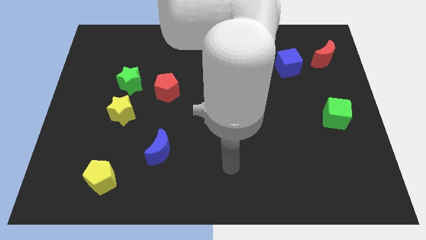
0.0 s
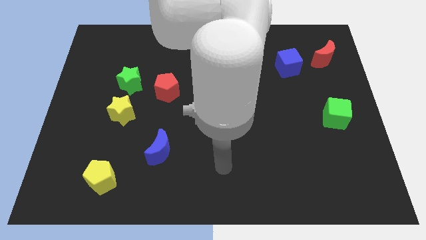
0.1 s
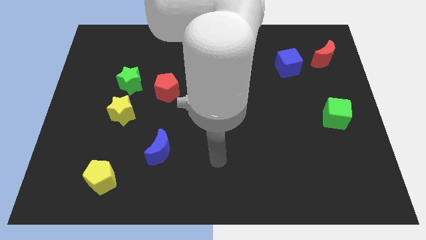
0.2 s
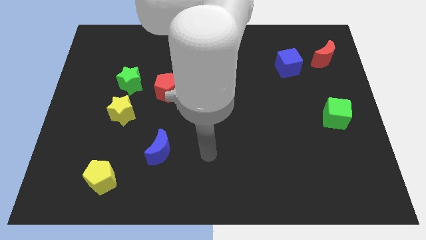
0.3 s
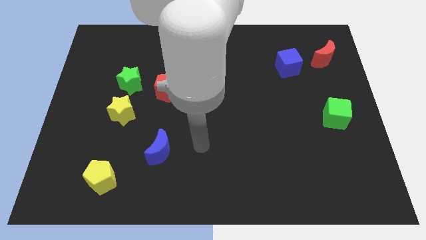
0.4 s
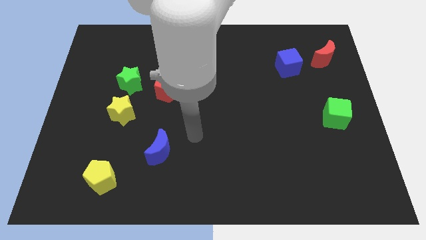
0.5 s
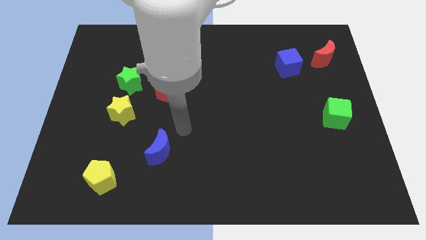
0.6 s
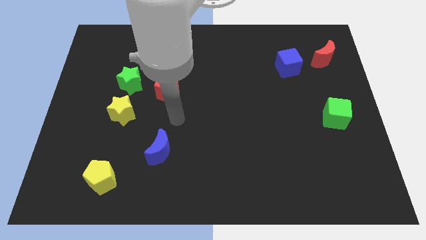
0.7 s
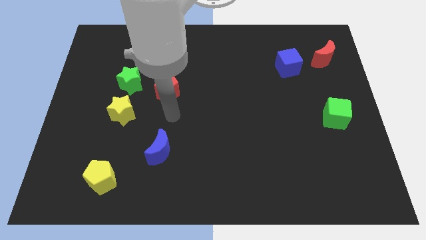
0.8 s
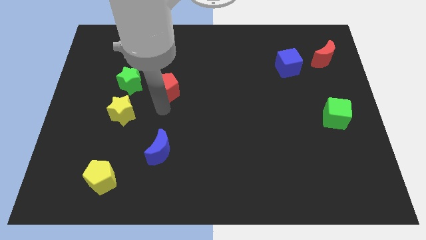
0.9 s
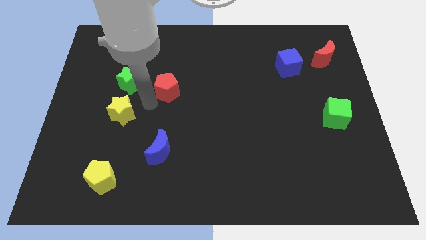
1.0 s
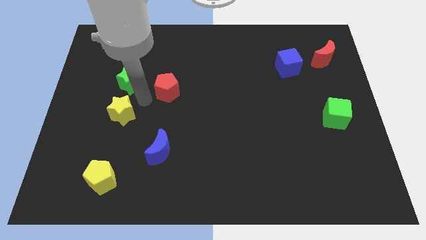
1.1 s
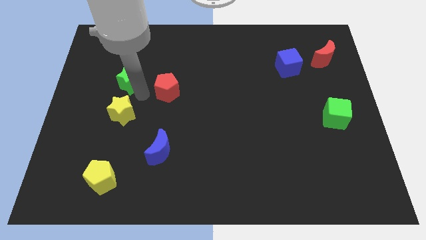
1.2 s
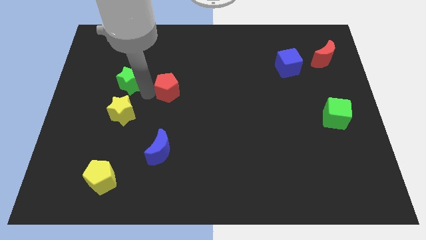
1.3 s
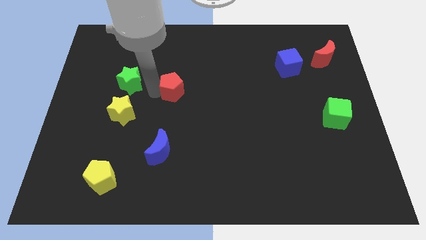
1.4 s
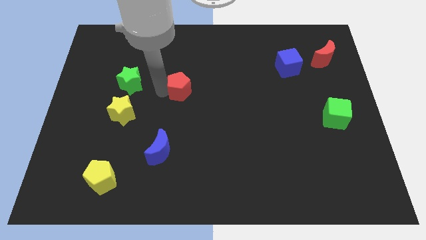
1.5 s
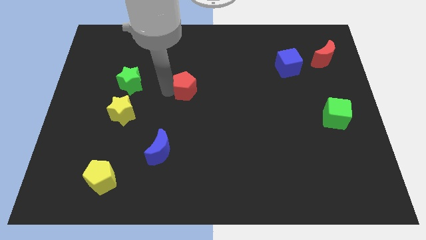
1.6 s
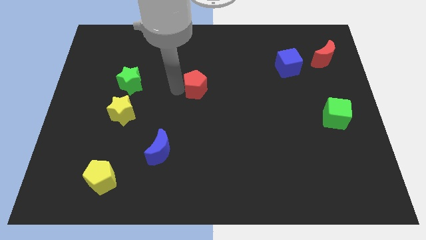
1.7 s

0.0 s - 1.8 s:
slide the red pentagon somewhat to the right

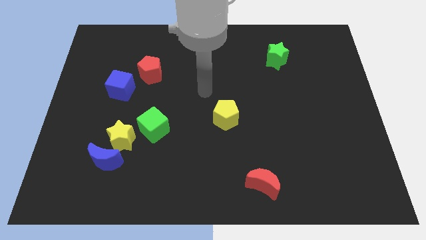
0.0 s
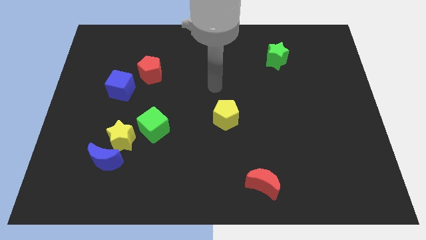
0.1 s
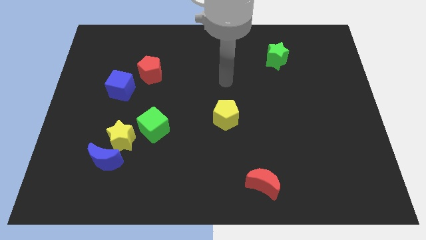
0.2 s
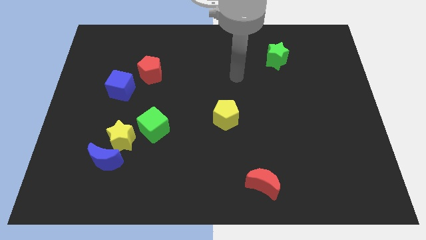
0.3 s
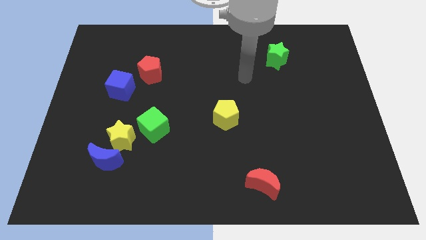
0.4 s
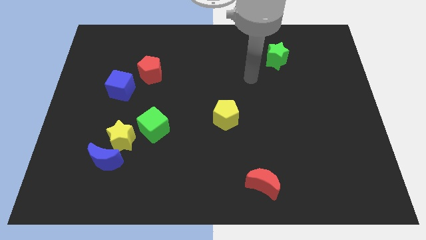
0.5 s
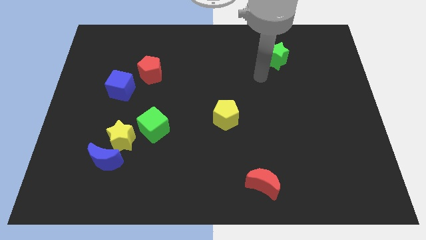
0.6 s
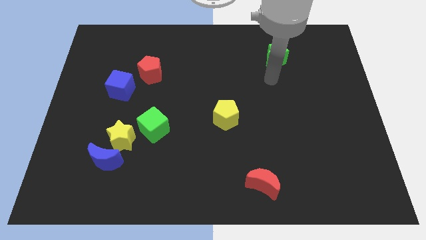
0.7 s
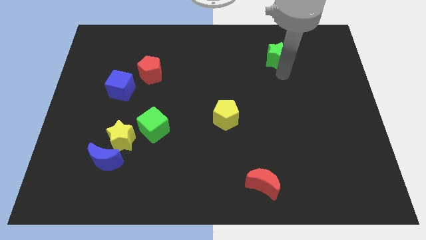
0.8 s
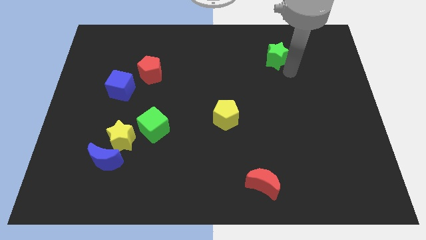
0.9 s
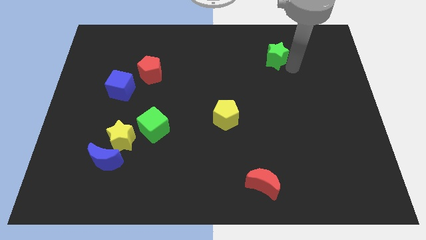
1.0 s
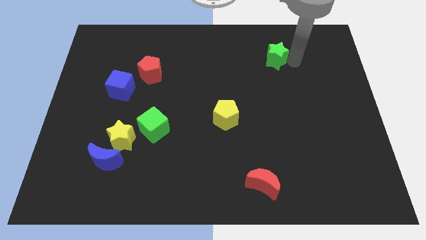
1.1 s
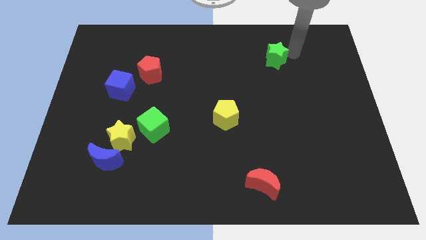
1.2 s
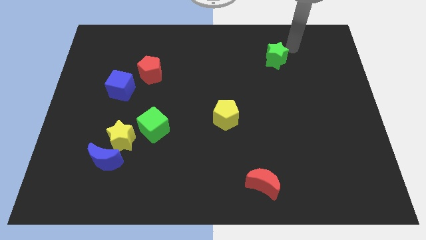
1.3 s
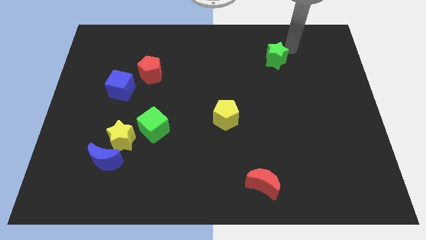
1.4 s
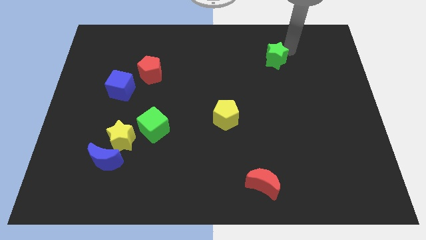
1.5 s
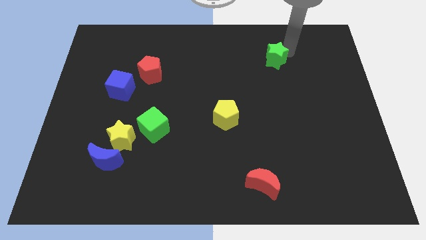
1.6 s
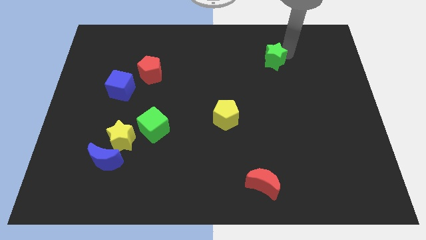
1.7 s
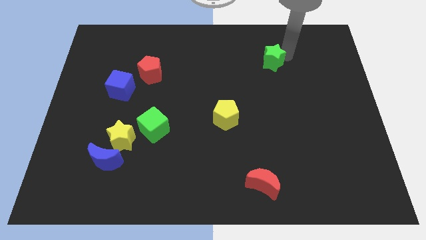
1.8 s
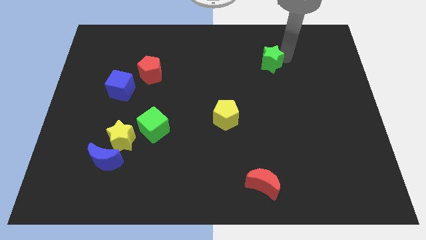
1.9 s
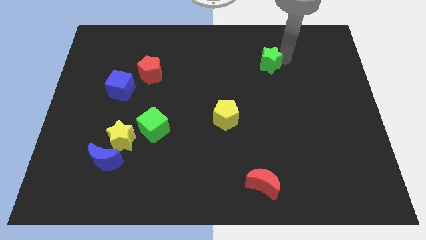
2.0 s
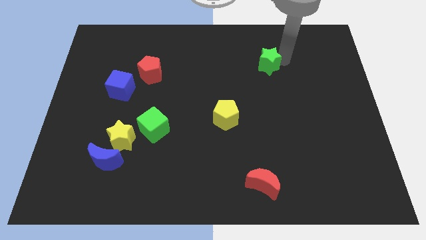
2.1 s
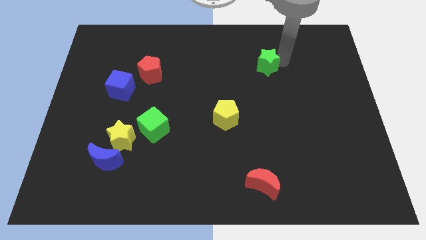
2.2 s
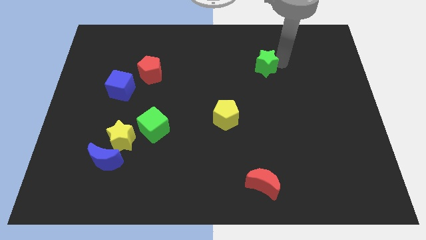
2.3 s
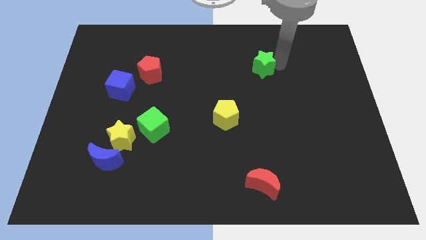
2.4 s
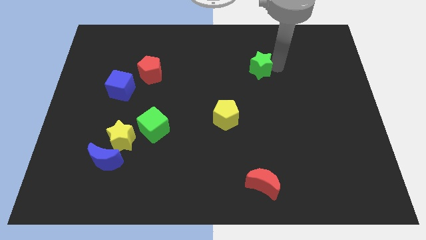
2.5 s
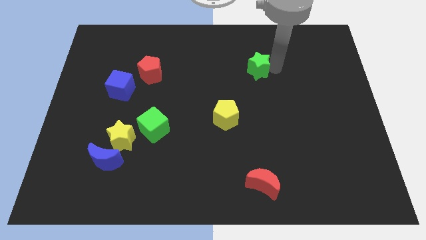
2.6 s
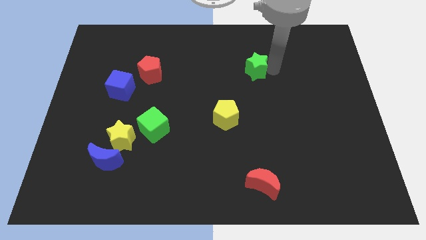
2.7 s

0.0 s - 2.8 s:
slightly push the green star diagonally downwards and left

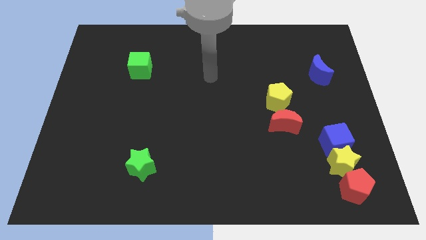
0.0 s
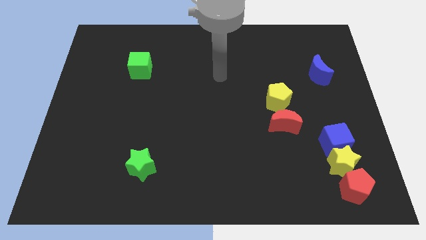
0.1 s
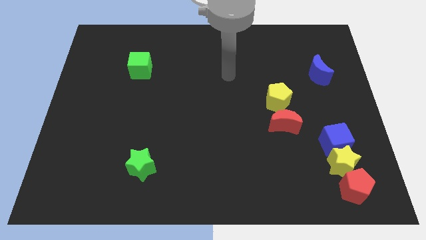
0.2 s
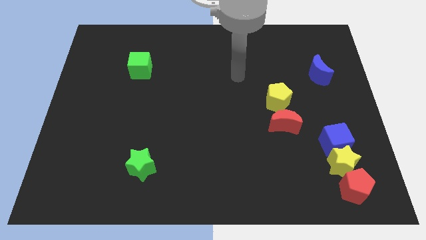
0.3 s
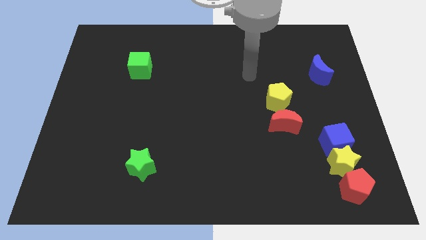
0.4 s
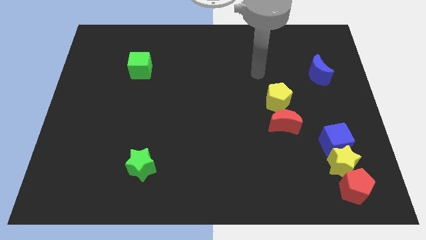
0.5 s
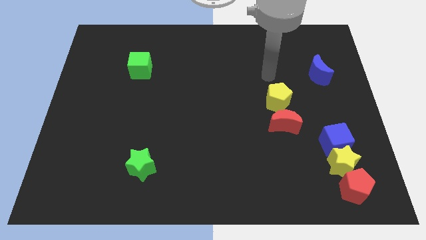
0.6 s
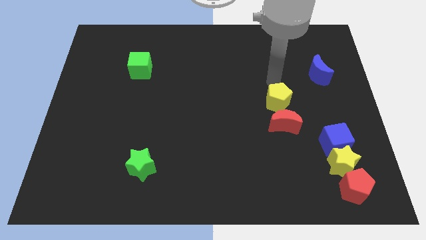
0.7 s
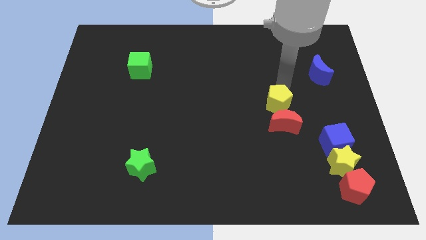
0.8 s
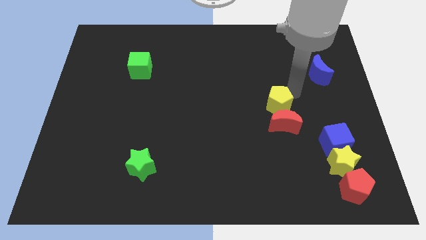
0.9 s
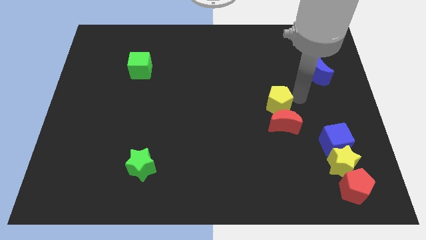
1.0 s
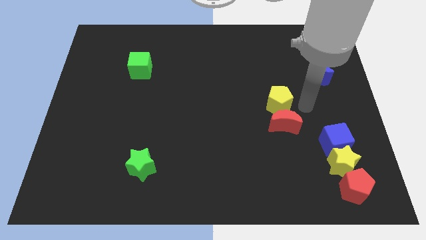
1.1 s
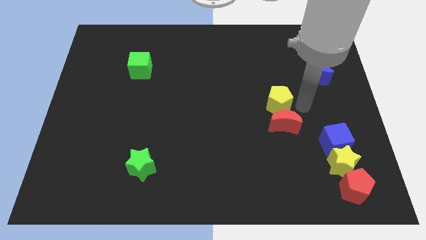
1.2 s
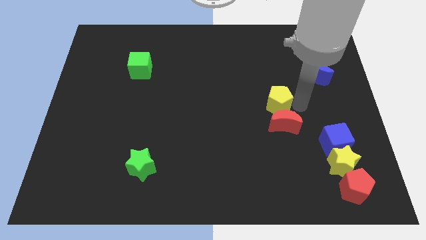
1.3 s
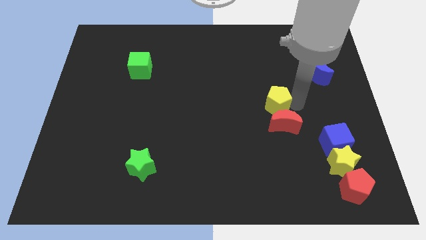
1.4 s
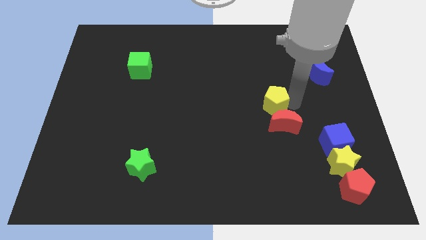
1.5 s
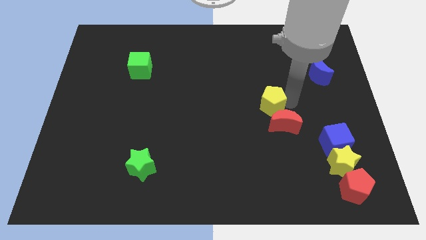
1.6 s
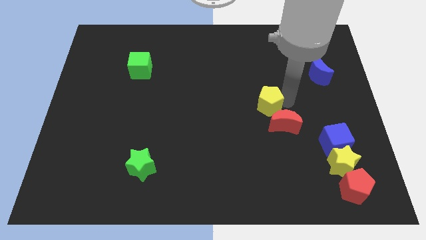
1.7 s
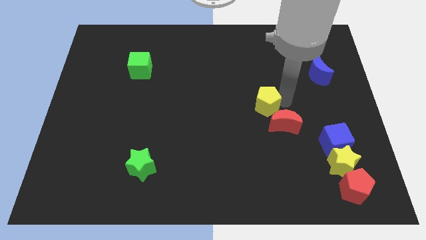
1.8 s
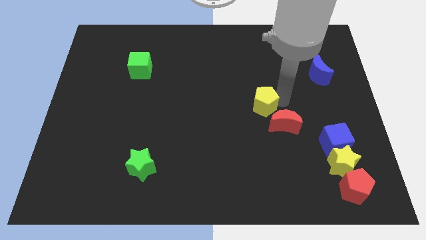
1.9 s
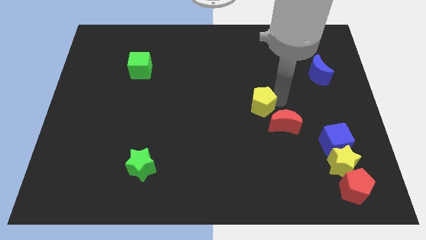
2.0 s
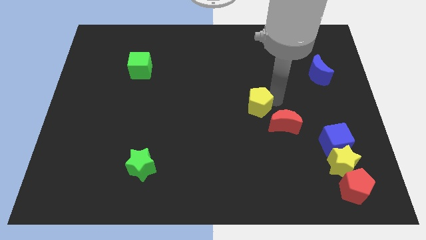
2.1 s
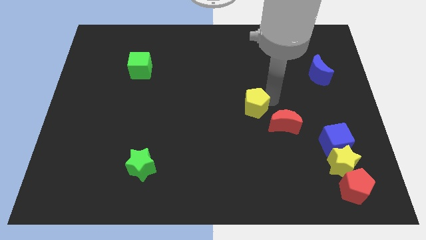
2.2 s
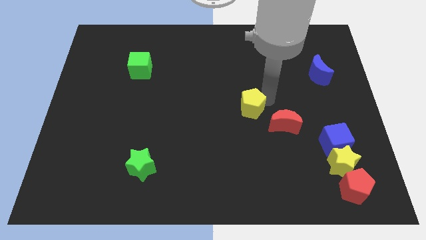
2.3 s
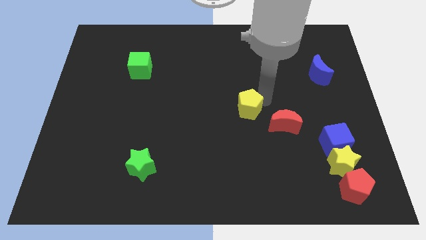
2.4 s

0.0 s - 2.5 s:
slide the yellow pentagon a bit to the left

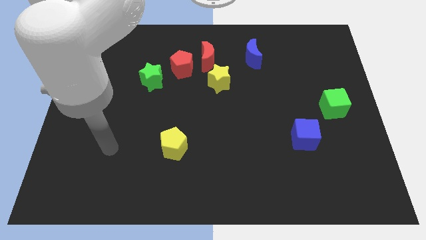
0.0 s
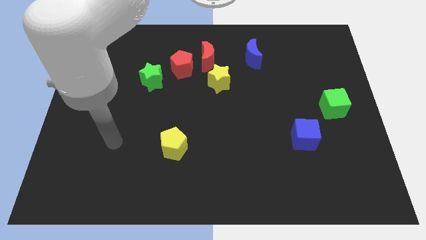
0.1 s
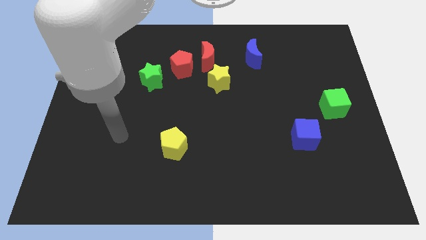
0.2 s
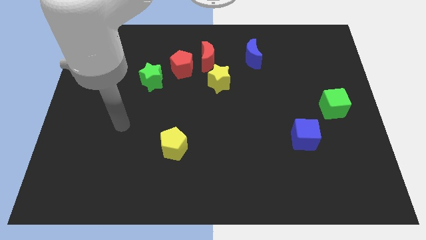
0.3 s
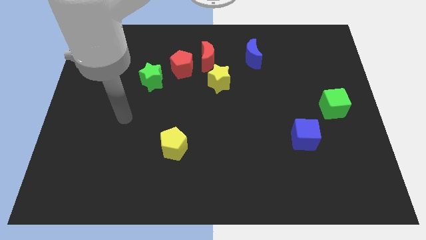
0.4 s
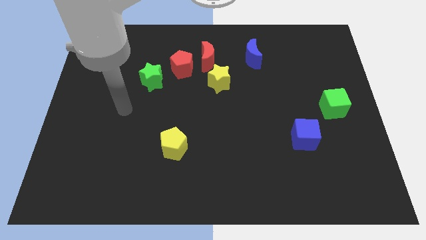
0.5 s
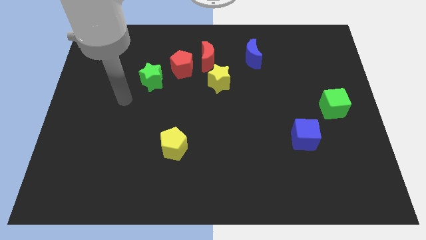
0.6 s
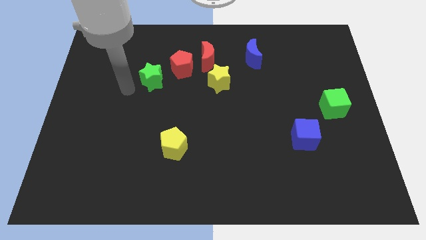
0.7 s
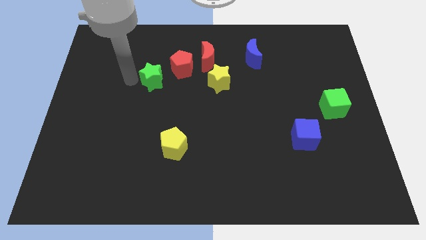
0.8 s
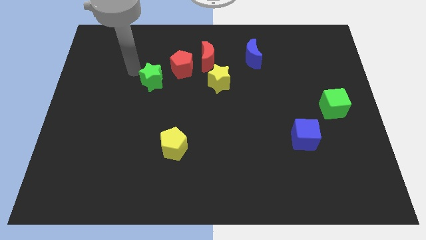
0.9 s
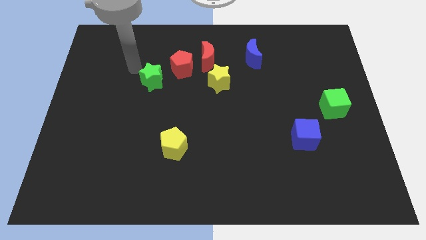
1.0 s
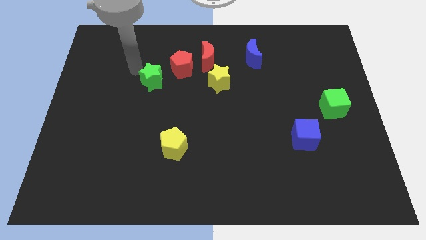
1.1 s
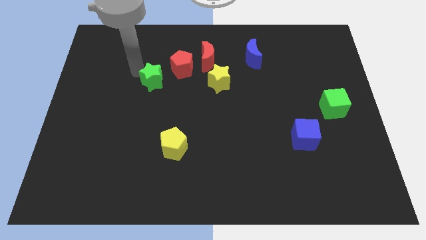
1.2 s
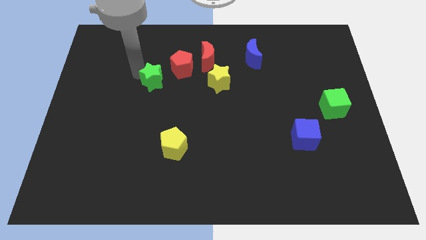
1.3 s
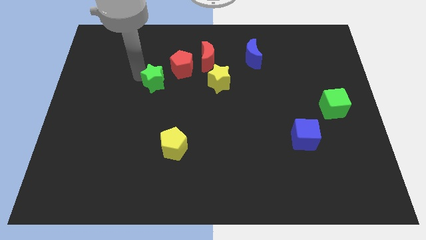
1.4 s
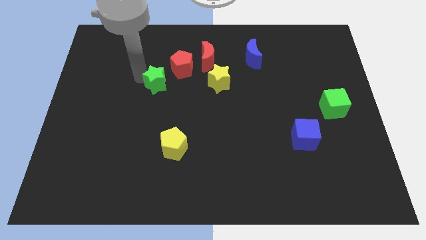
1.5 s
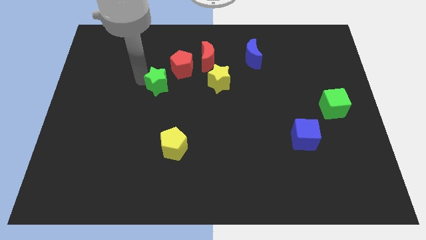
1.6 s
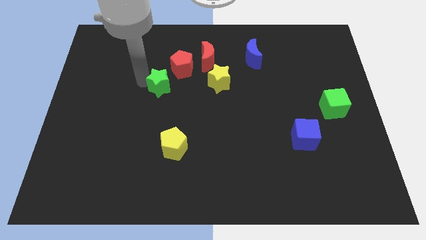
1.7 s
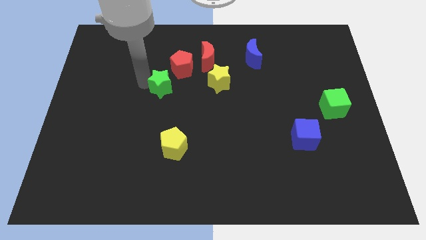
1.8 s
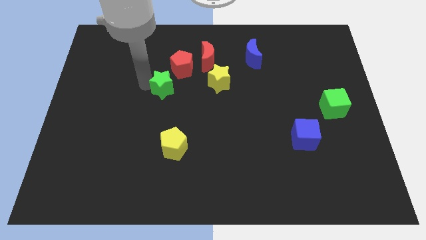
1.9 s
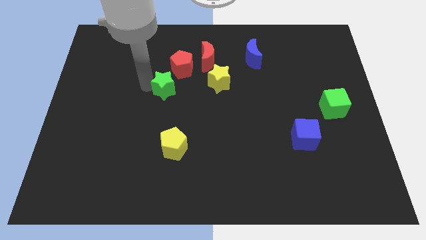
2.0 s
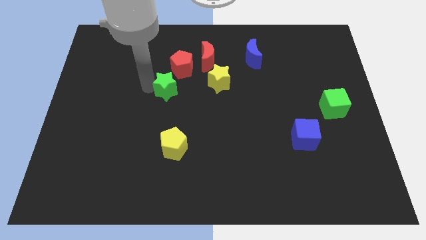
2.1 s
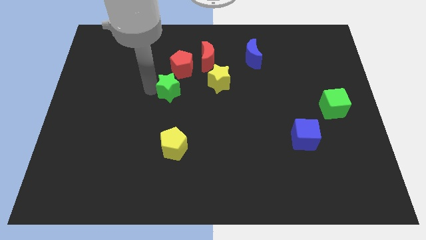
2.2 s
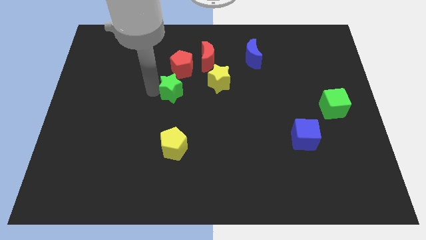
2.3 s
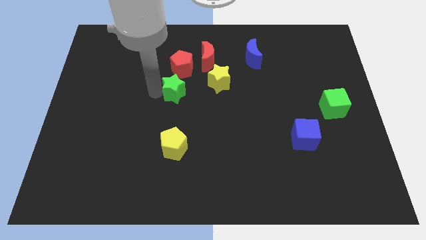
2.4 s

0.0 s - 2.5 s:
move the green star a little down and then to the right
